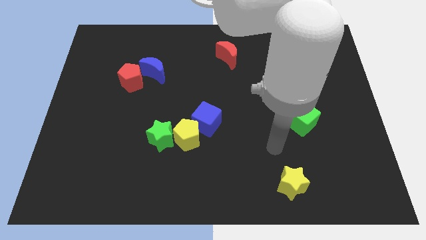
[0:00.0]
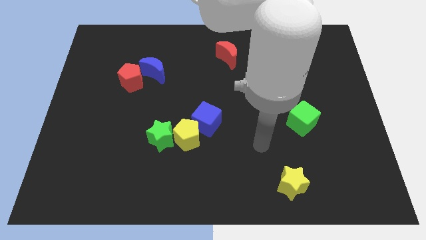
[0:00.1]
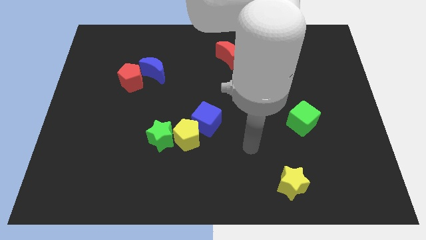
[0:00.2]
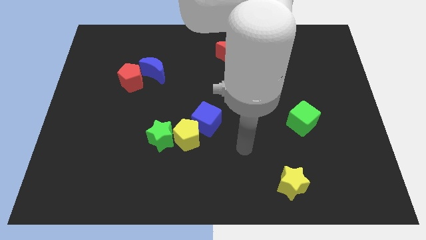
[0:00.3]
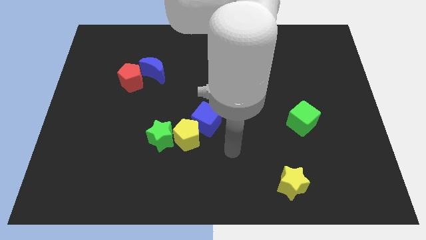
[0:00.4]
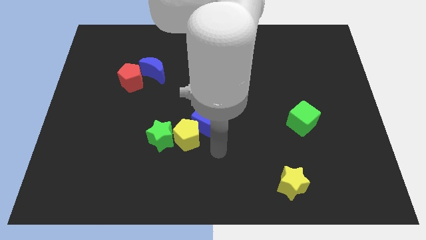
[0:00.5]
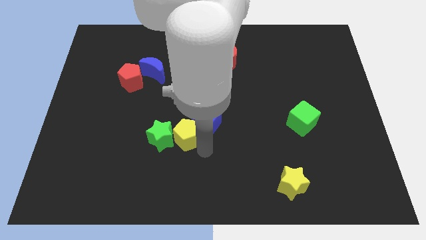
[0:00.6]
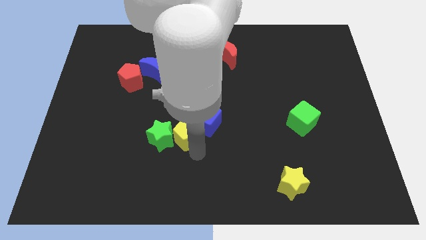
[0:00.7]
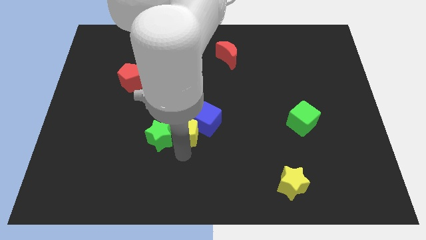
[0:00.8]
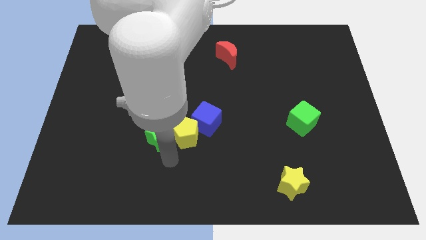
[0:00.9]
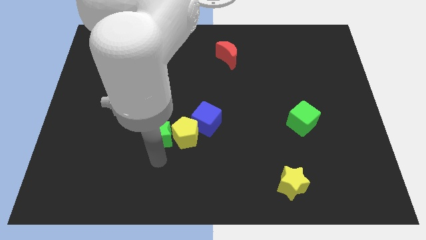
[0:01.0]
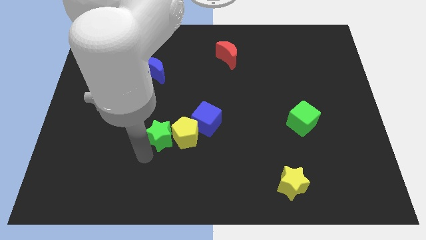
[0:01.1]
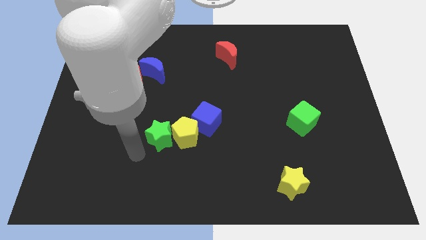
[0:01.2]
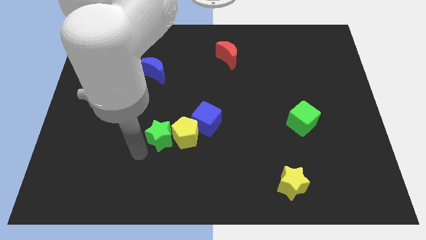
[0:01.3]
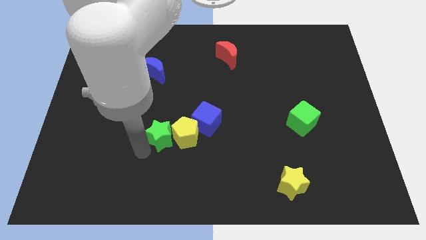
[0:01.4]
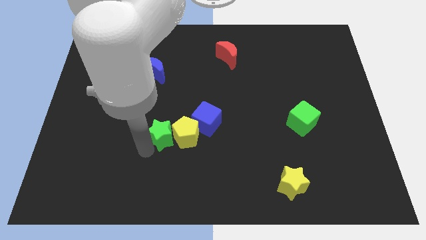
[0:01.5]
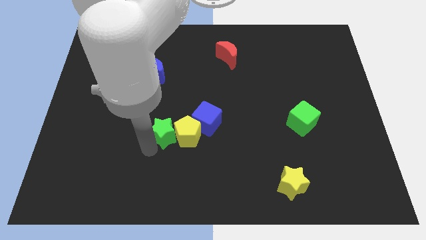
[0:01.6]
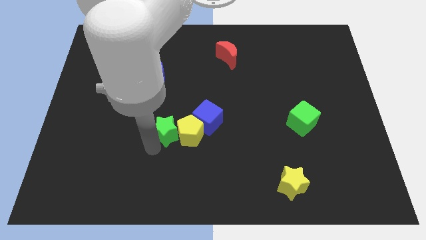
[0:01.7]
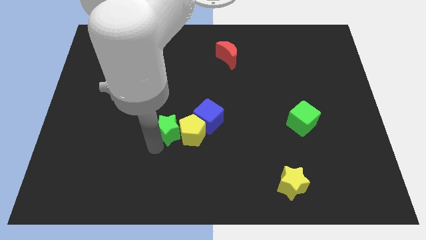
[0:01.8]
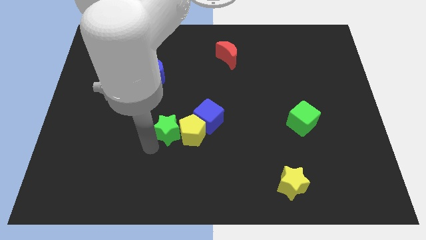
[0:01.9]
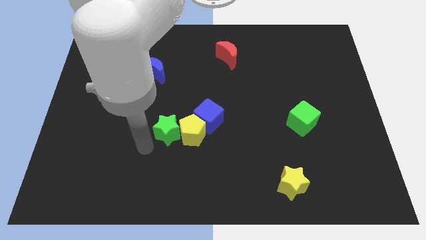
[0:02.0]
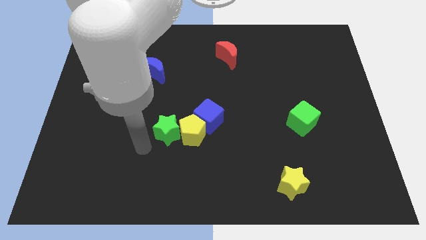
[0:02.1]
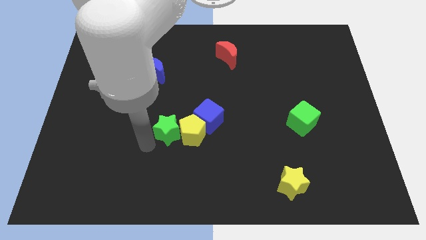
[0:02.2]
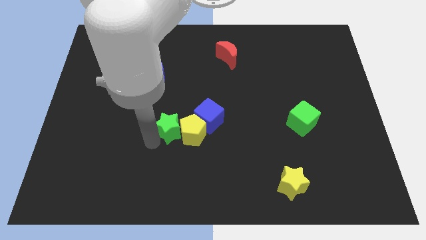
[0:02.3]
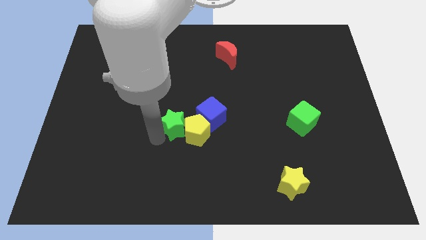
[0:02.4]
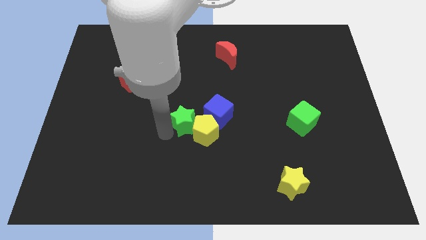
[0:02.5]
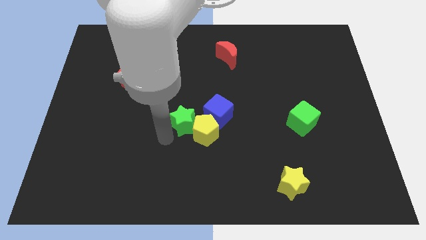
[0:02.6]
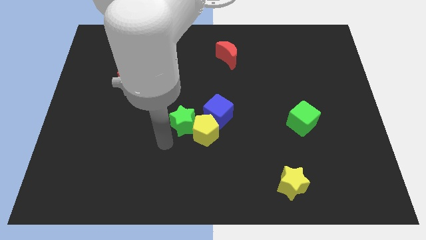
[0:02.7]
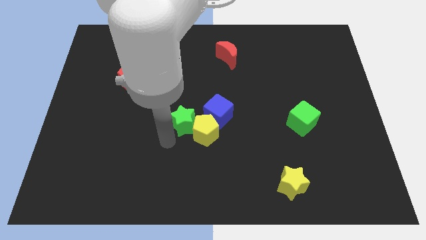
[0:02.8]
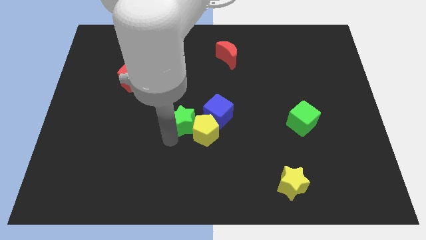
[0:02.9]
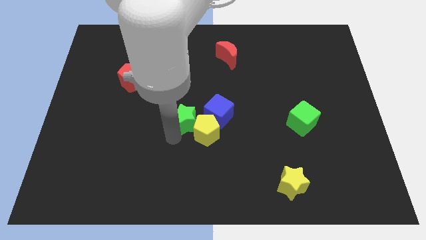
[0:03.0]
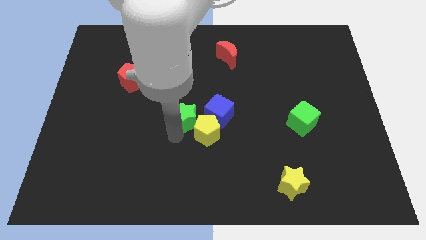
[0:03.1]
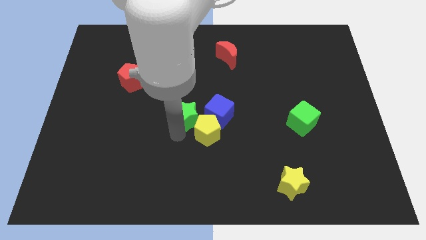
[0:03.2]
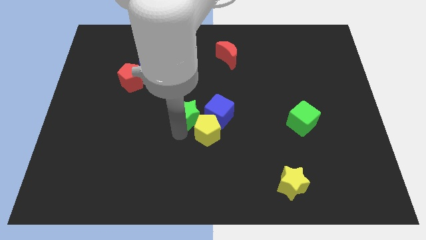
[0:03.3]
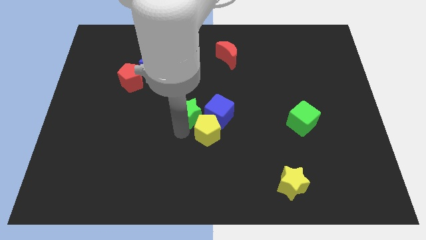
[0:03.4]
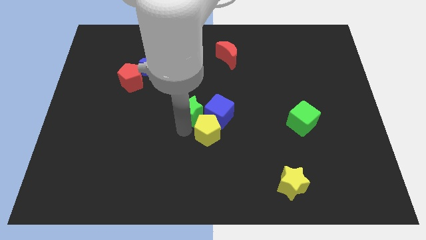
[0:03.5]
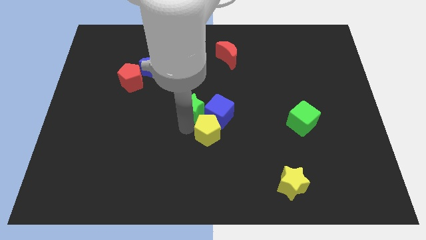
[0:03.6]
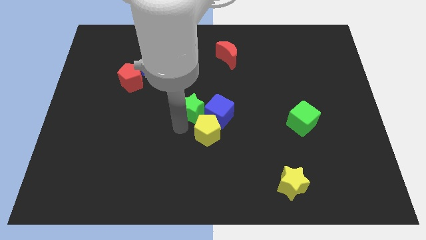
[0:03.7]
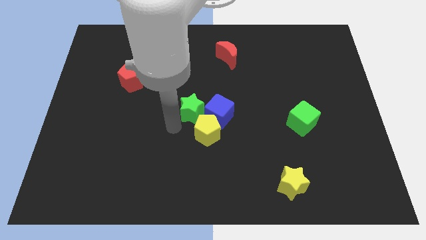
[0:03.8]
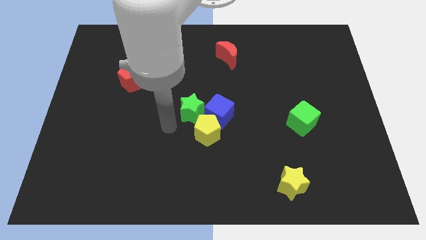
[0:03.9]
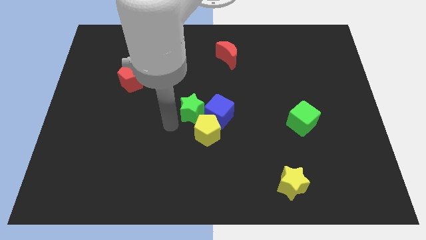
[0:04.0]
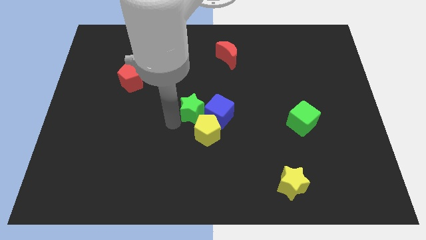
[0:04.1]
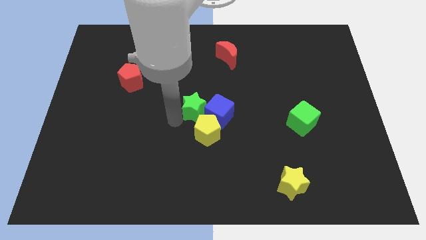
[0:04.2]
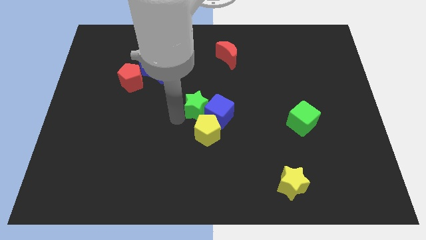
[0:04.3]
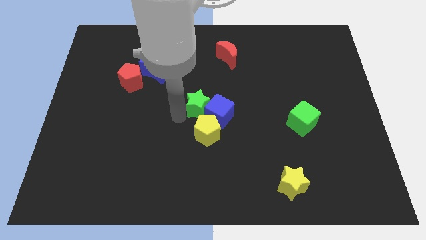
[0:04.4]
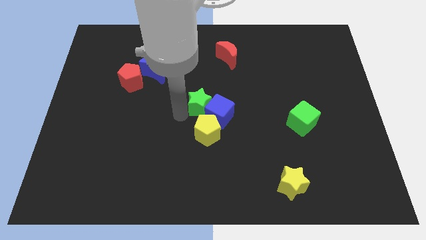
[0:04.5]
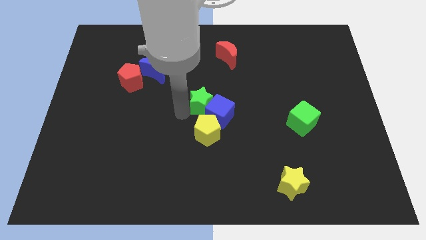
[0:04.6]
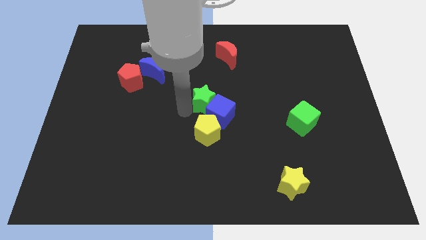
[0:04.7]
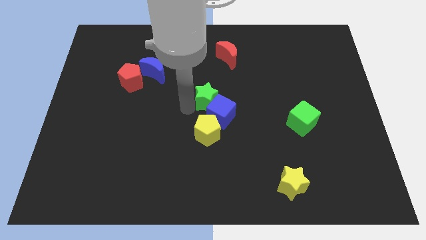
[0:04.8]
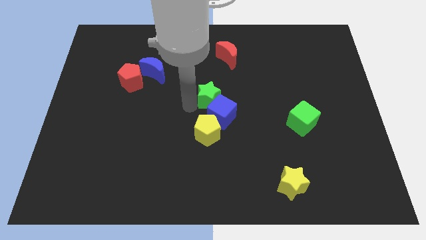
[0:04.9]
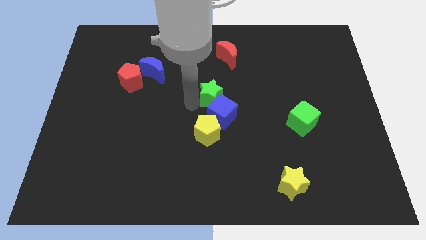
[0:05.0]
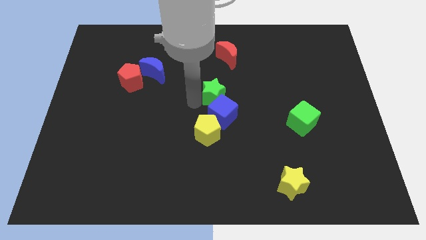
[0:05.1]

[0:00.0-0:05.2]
push the green star below the red moon

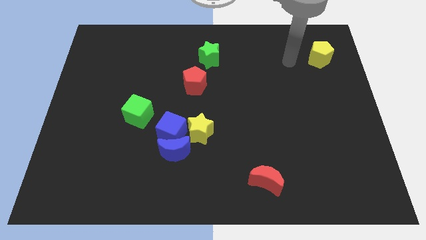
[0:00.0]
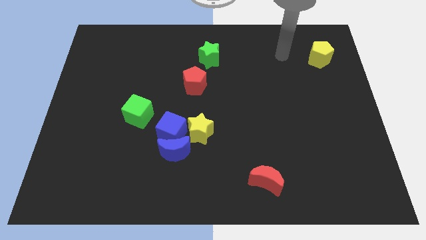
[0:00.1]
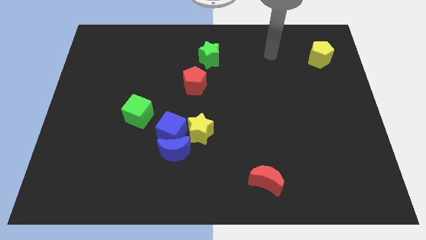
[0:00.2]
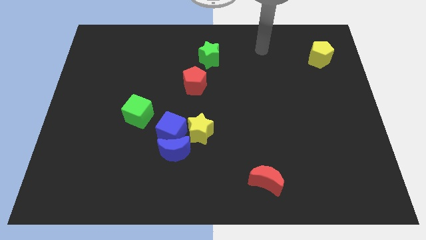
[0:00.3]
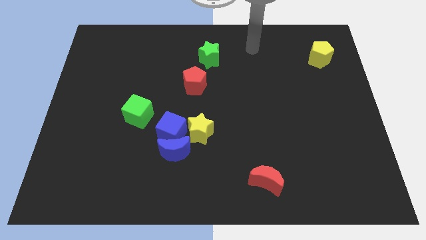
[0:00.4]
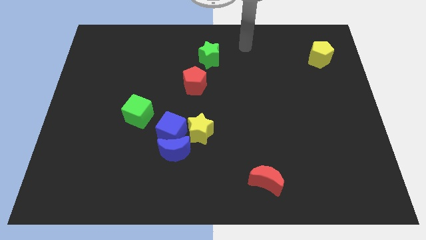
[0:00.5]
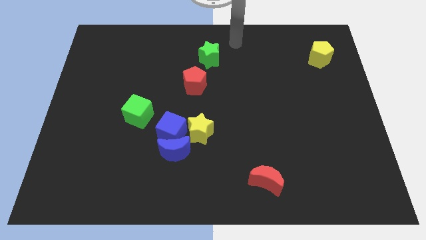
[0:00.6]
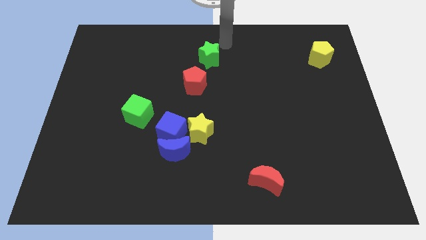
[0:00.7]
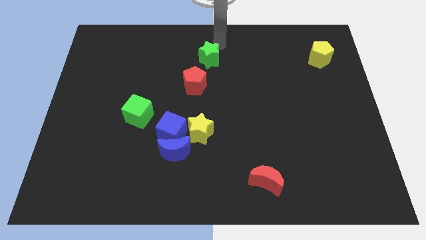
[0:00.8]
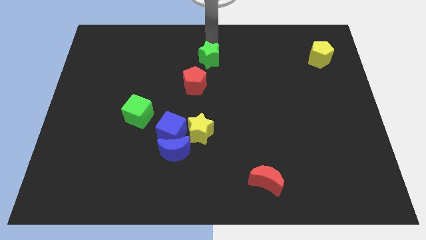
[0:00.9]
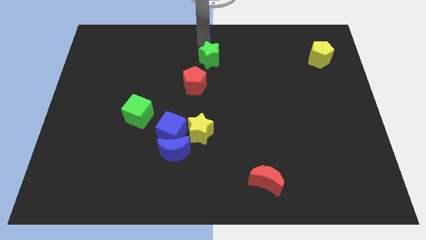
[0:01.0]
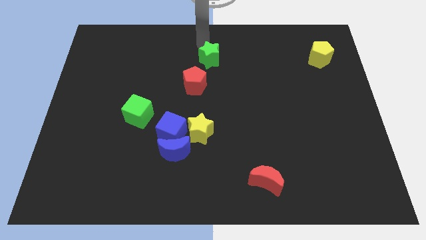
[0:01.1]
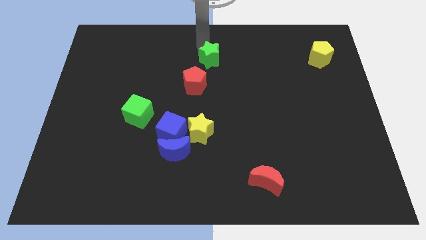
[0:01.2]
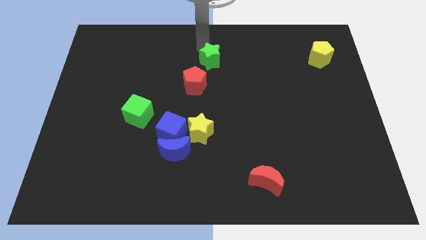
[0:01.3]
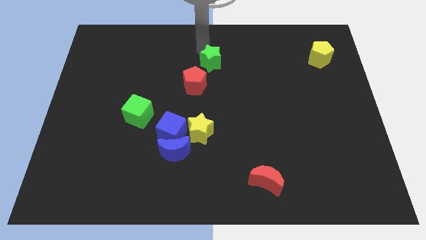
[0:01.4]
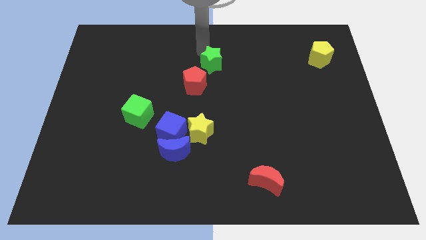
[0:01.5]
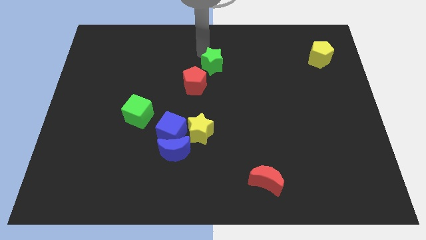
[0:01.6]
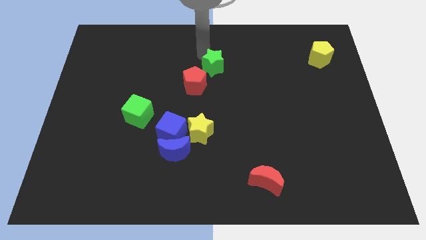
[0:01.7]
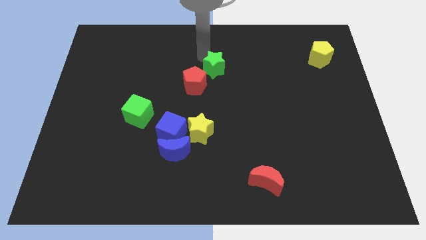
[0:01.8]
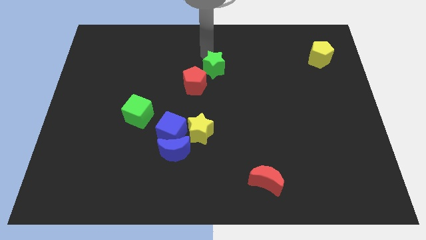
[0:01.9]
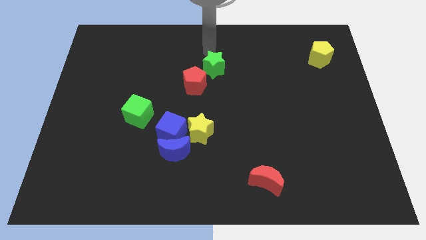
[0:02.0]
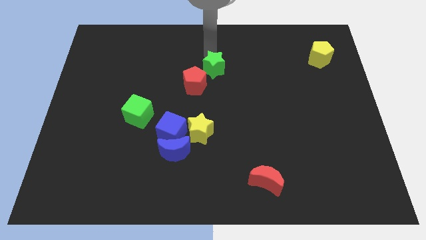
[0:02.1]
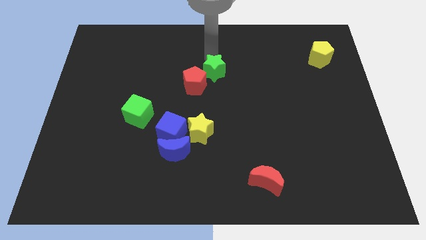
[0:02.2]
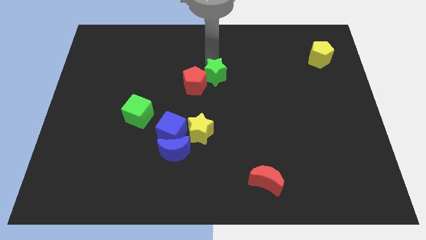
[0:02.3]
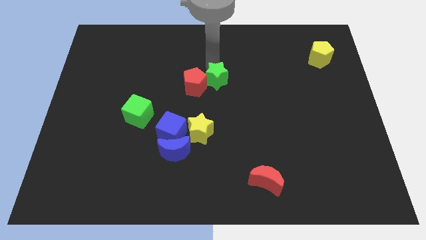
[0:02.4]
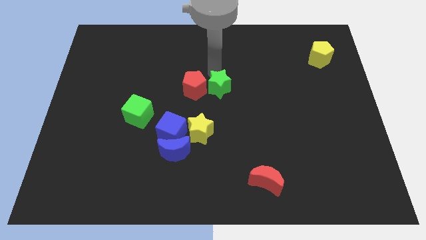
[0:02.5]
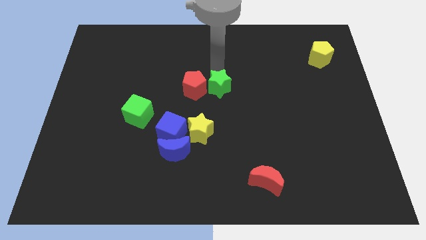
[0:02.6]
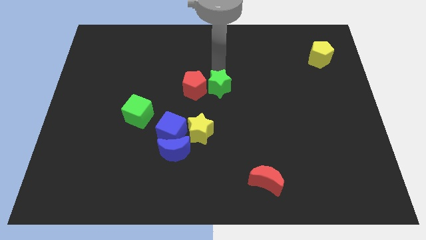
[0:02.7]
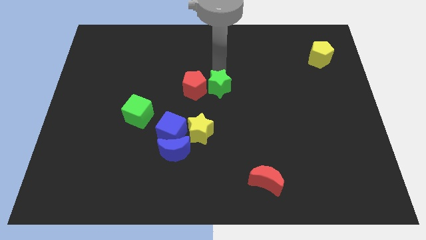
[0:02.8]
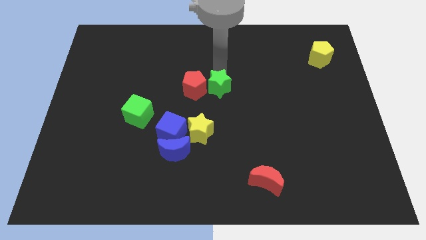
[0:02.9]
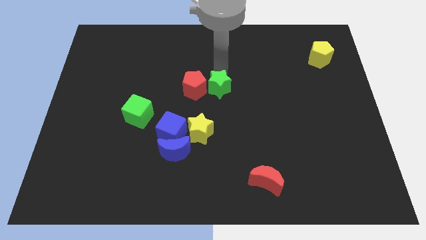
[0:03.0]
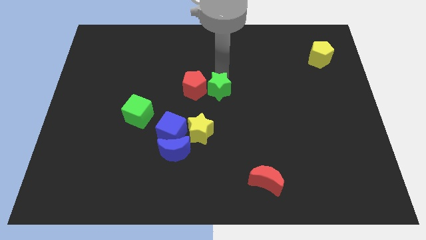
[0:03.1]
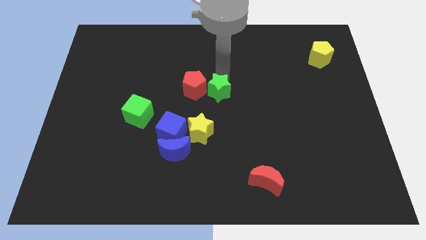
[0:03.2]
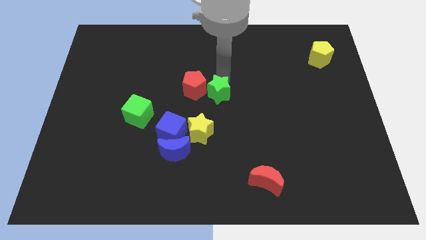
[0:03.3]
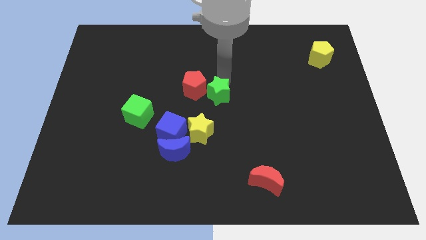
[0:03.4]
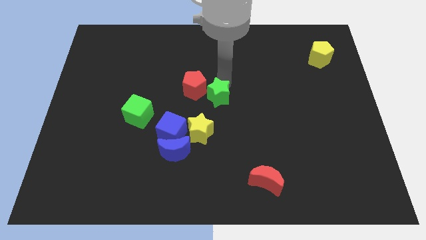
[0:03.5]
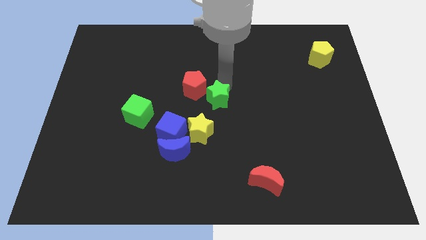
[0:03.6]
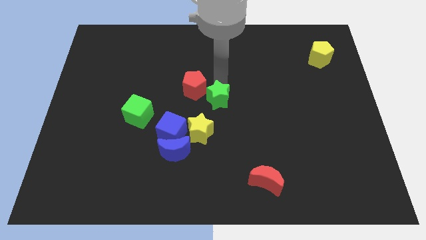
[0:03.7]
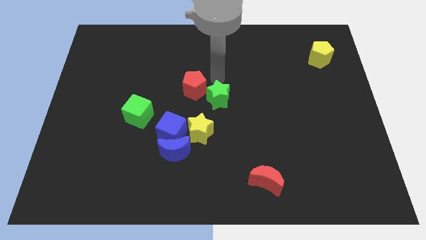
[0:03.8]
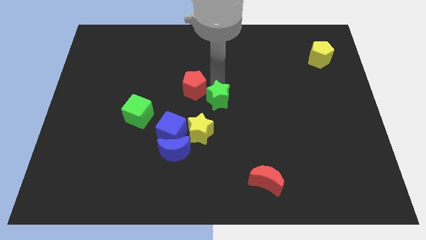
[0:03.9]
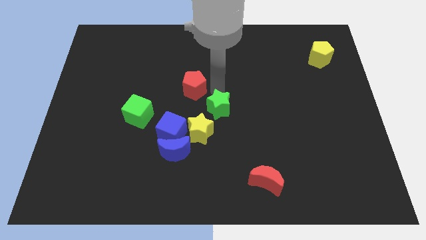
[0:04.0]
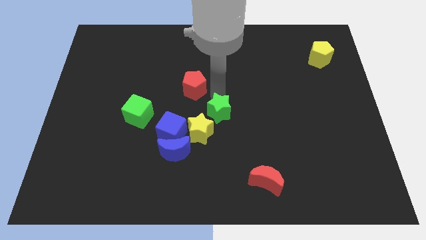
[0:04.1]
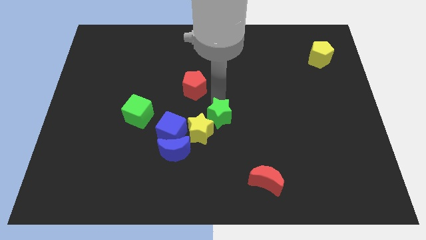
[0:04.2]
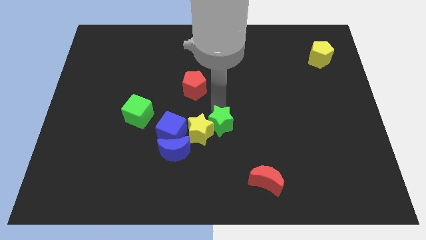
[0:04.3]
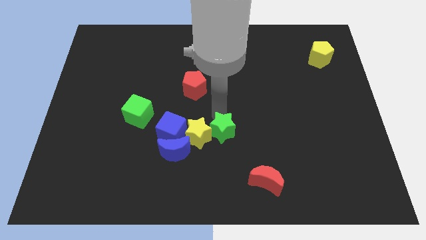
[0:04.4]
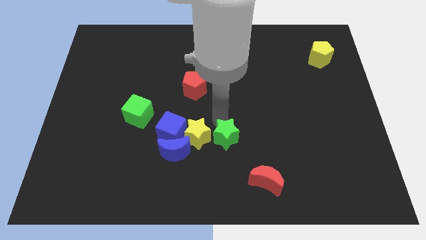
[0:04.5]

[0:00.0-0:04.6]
slide the green star just right of the blue moon
